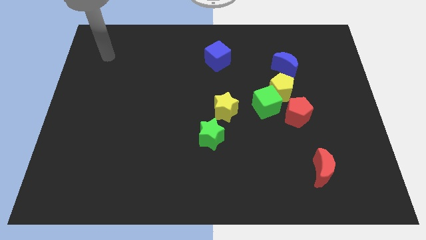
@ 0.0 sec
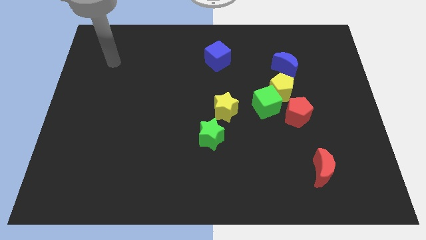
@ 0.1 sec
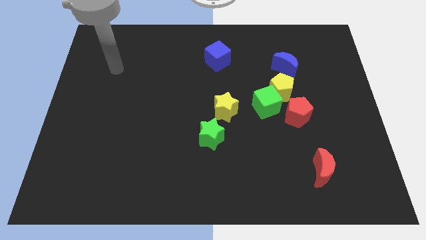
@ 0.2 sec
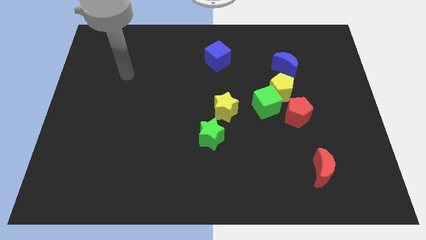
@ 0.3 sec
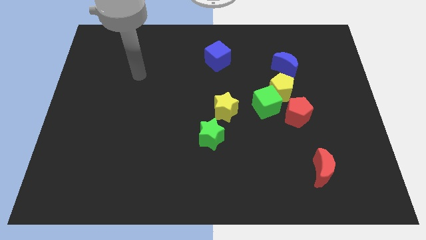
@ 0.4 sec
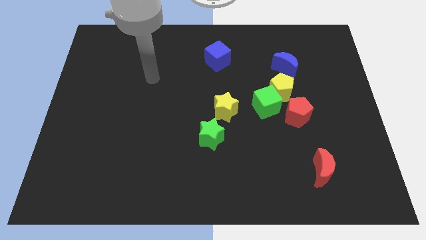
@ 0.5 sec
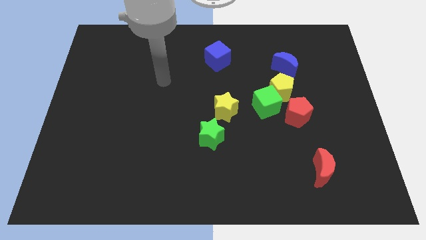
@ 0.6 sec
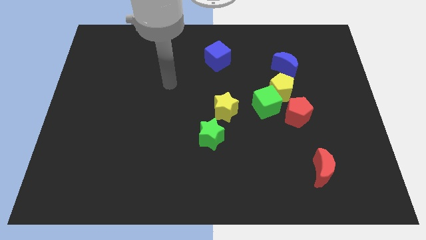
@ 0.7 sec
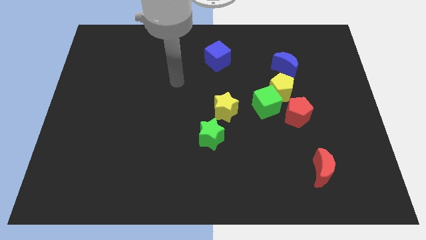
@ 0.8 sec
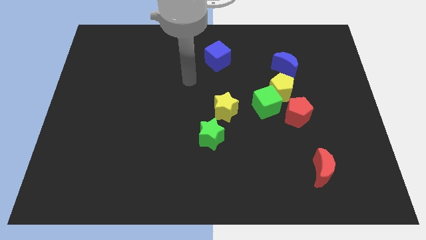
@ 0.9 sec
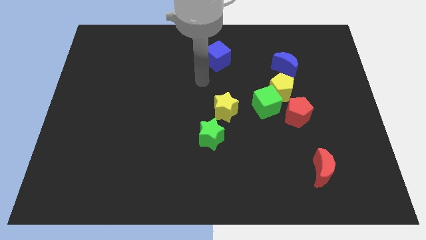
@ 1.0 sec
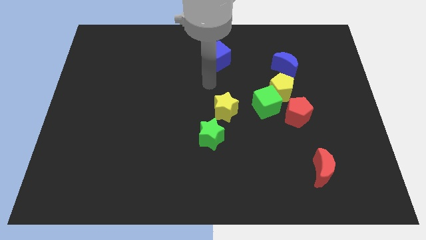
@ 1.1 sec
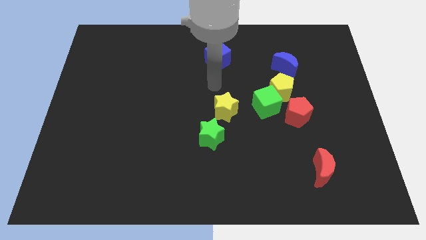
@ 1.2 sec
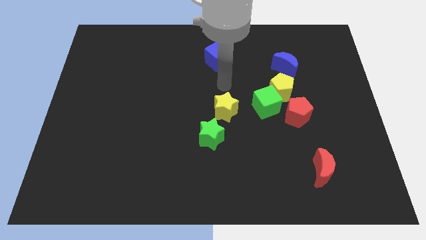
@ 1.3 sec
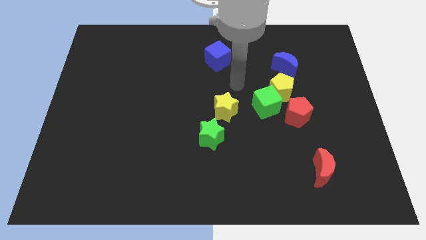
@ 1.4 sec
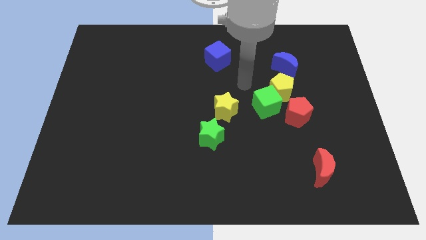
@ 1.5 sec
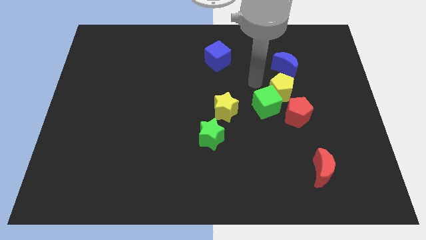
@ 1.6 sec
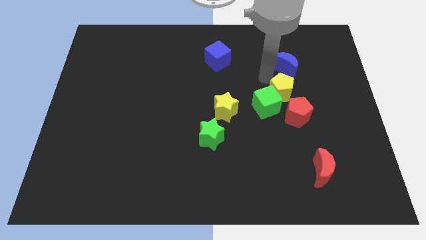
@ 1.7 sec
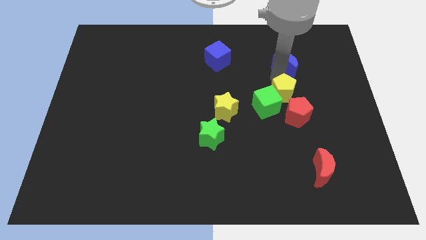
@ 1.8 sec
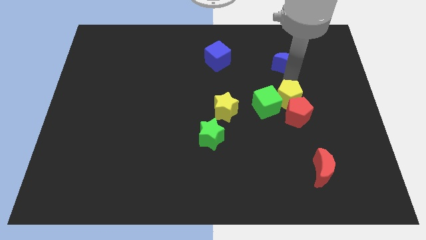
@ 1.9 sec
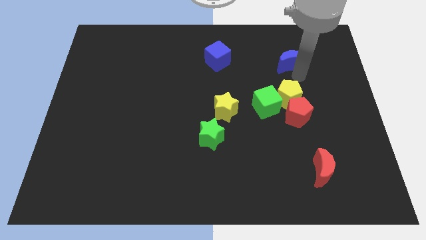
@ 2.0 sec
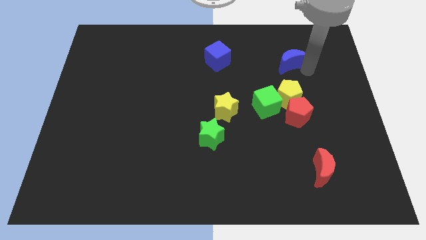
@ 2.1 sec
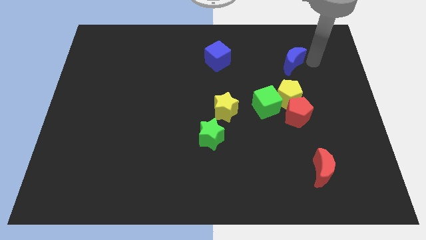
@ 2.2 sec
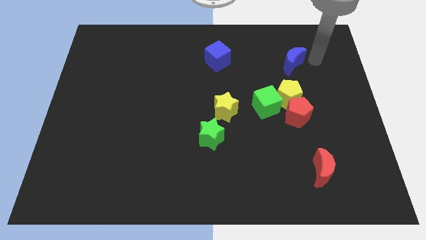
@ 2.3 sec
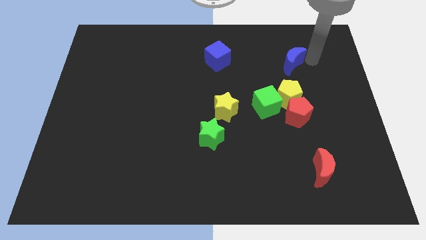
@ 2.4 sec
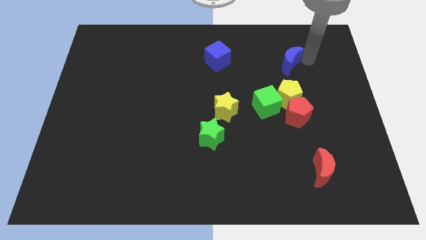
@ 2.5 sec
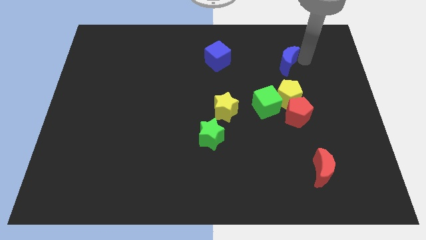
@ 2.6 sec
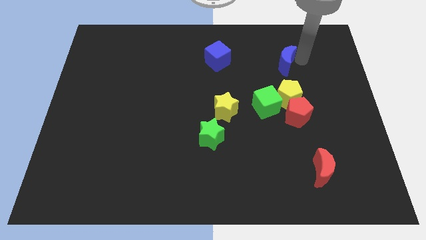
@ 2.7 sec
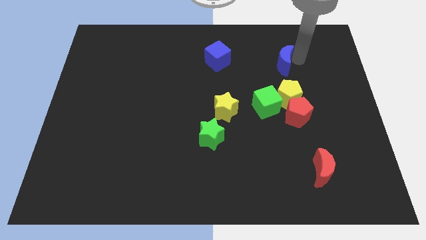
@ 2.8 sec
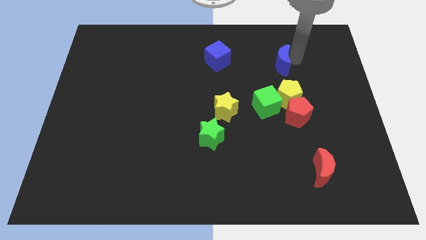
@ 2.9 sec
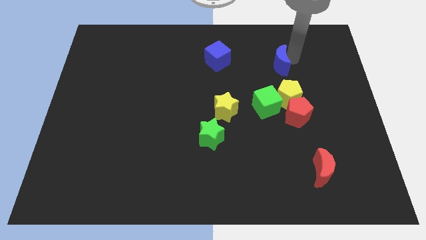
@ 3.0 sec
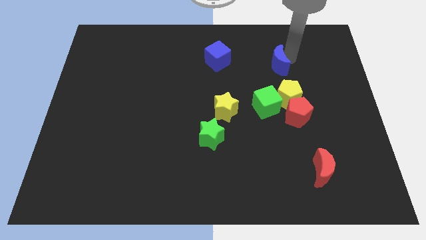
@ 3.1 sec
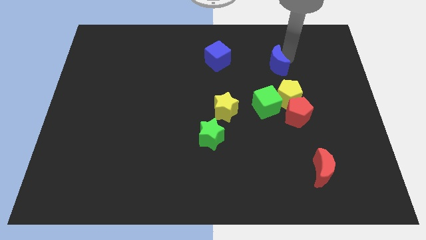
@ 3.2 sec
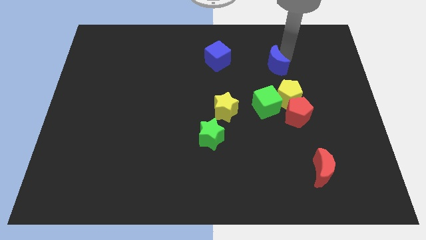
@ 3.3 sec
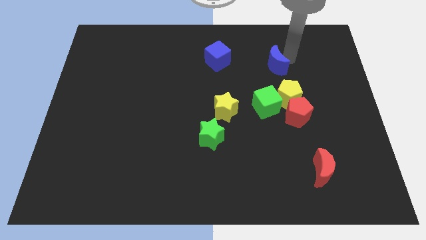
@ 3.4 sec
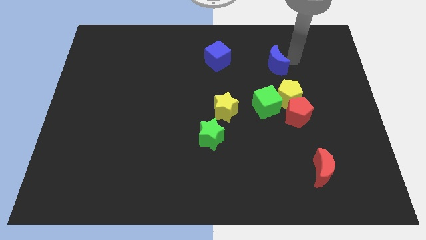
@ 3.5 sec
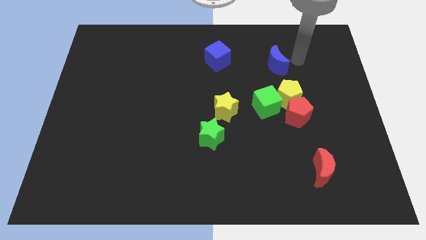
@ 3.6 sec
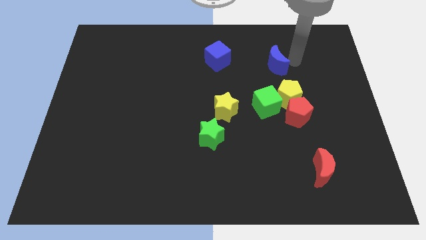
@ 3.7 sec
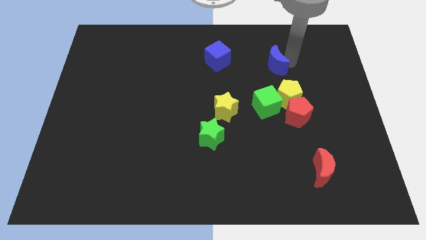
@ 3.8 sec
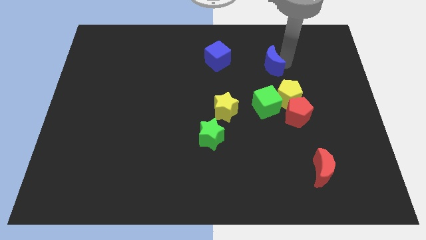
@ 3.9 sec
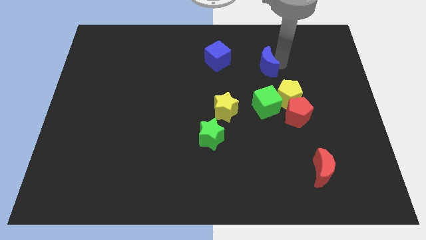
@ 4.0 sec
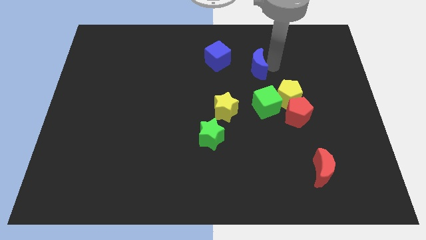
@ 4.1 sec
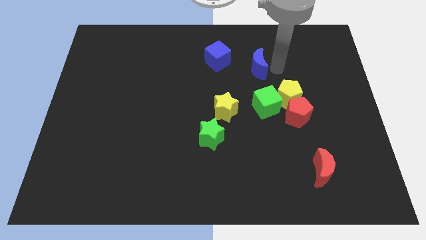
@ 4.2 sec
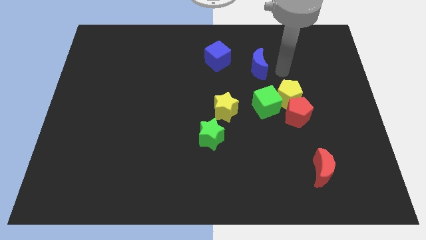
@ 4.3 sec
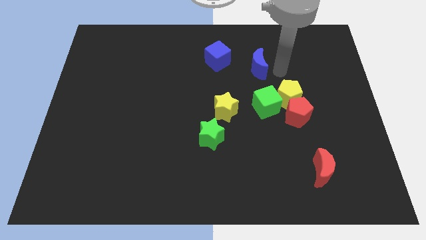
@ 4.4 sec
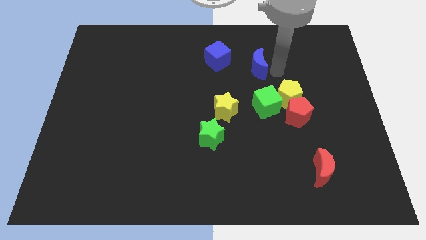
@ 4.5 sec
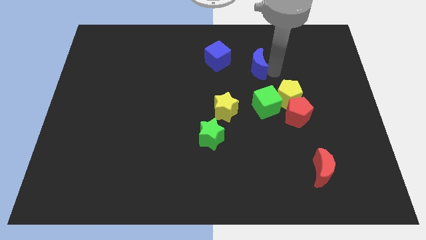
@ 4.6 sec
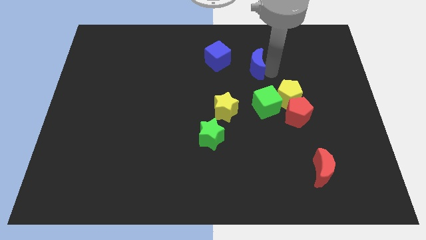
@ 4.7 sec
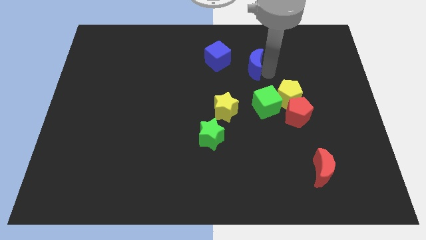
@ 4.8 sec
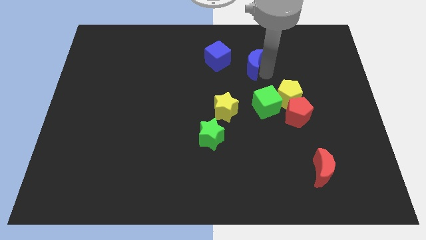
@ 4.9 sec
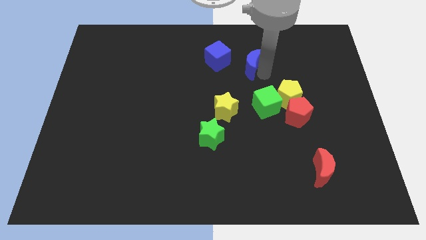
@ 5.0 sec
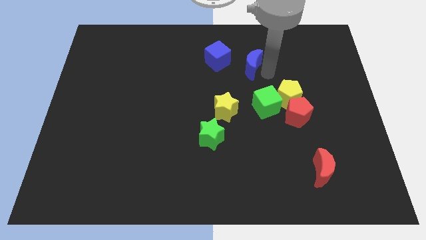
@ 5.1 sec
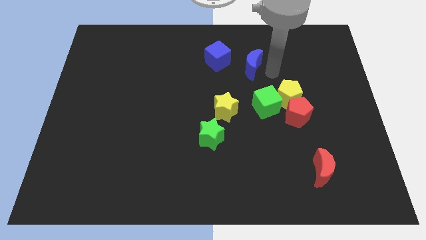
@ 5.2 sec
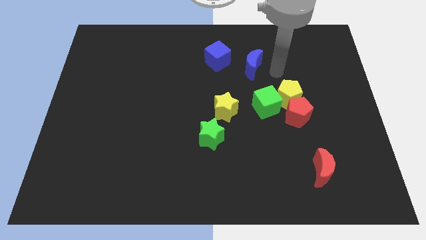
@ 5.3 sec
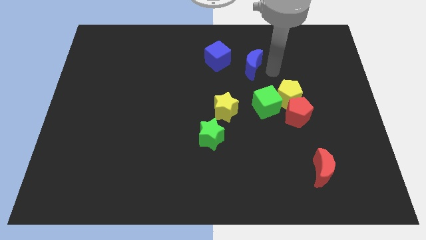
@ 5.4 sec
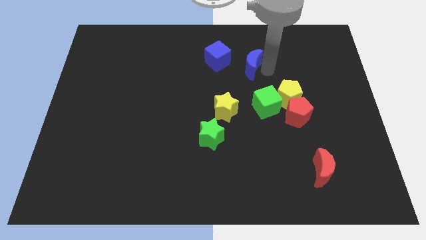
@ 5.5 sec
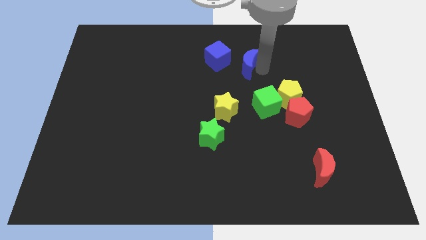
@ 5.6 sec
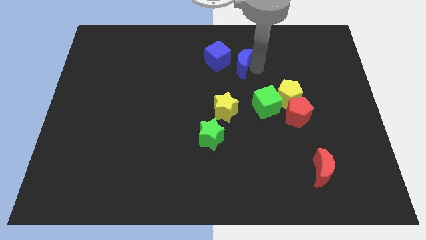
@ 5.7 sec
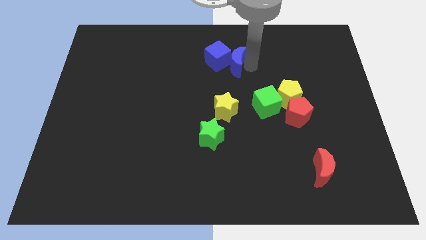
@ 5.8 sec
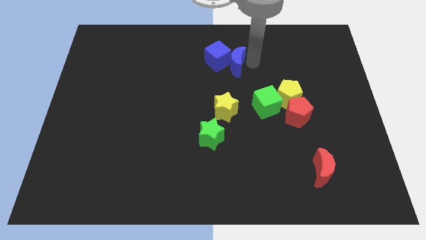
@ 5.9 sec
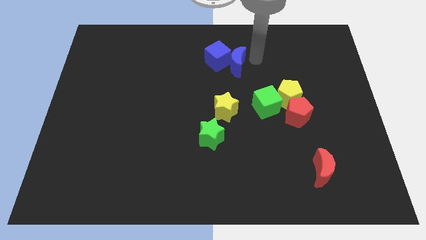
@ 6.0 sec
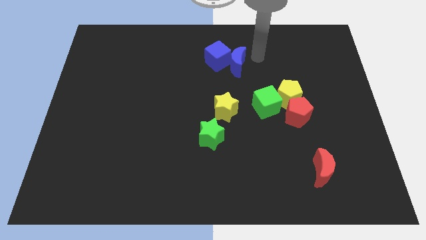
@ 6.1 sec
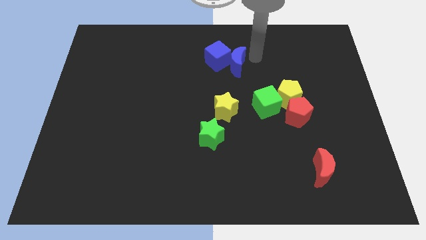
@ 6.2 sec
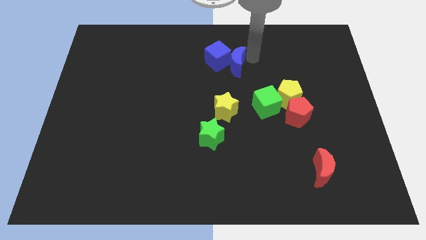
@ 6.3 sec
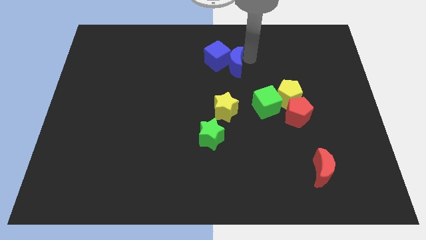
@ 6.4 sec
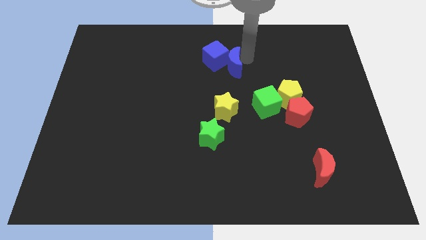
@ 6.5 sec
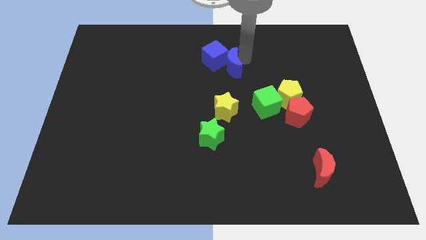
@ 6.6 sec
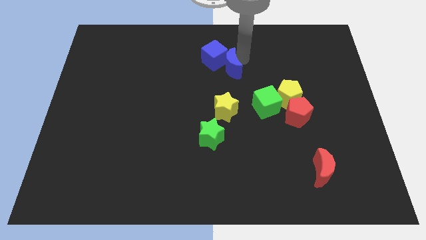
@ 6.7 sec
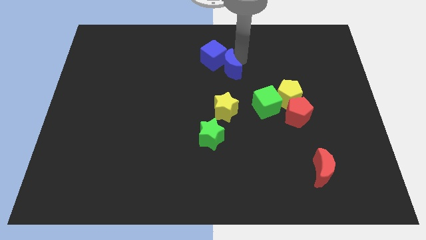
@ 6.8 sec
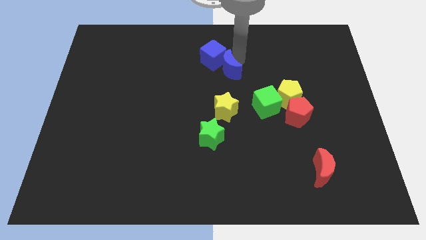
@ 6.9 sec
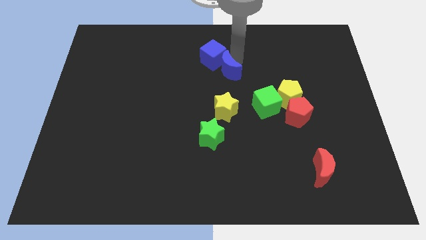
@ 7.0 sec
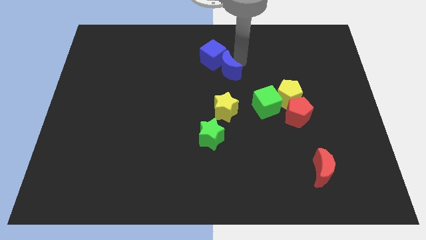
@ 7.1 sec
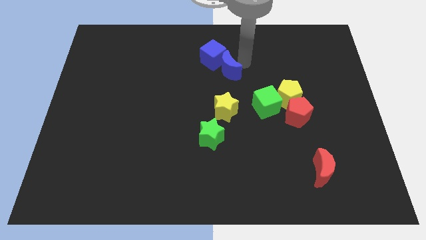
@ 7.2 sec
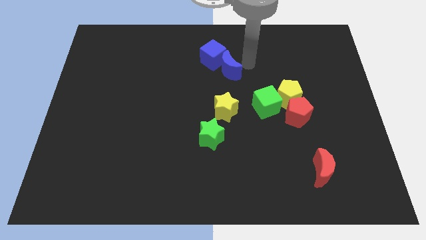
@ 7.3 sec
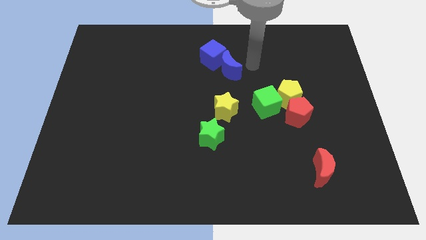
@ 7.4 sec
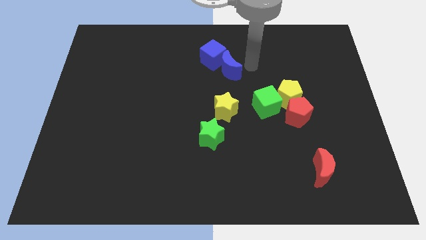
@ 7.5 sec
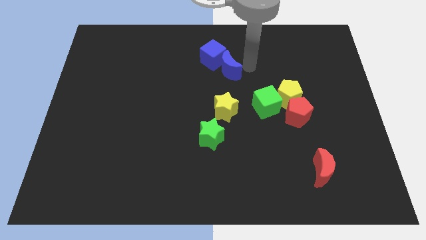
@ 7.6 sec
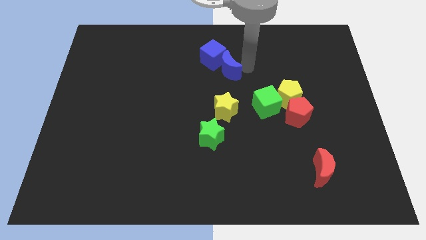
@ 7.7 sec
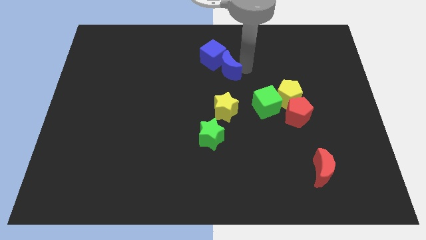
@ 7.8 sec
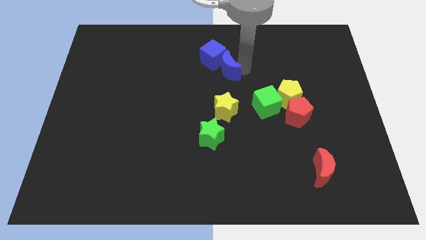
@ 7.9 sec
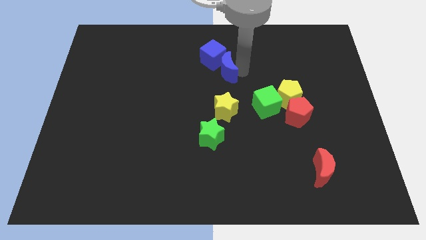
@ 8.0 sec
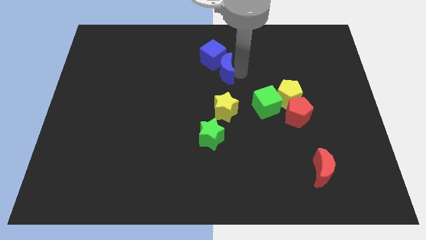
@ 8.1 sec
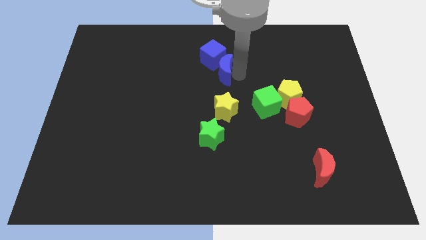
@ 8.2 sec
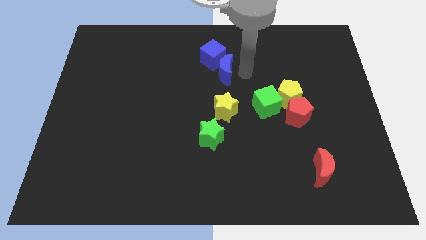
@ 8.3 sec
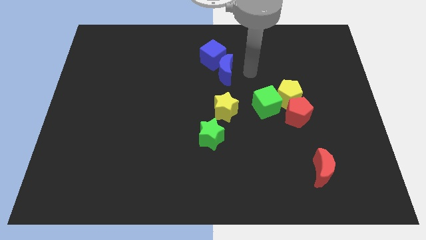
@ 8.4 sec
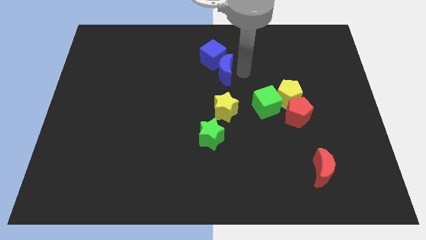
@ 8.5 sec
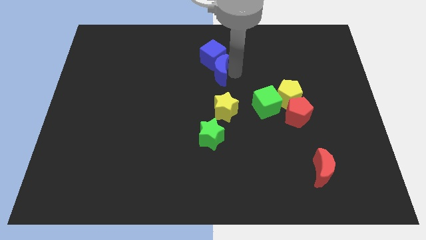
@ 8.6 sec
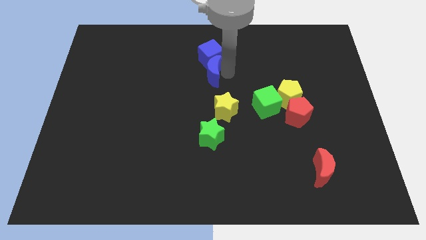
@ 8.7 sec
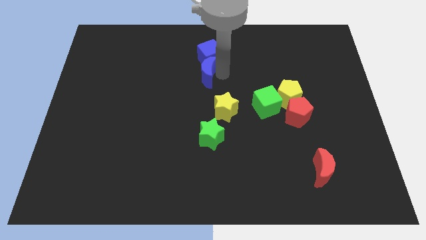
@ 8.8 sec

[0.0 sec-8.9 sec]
slide the blue moon left
